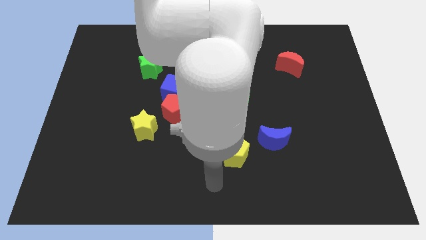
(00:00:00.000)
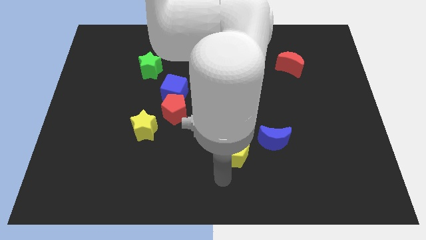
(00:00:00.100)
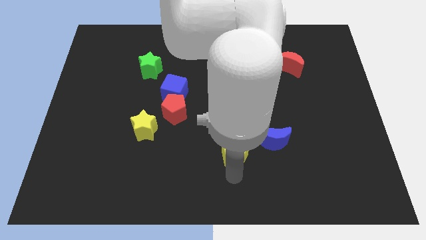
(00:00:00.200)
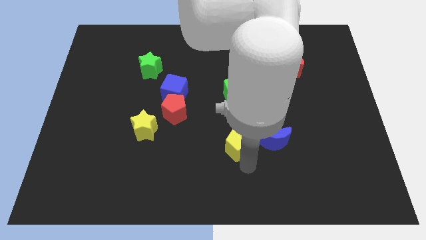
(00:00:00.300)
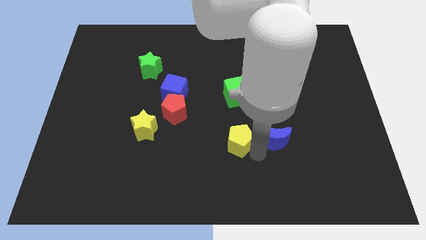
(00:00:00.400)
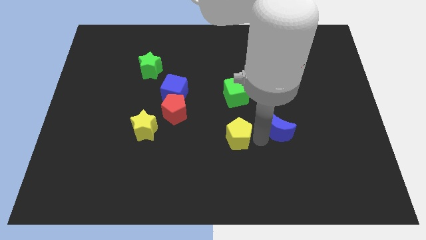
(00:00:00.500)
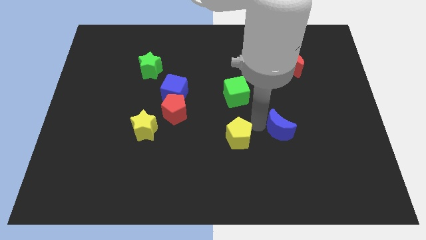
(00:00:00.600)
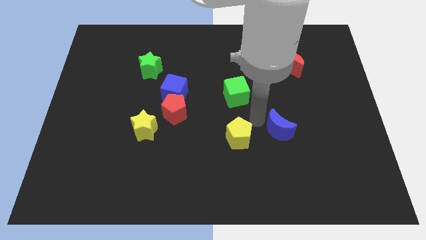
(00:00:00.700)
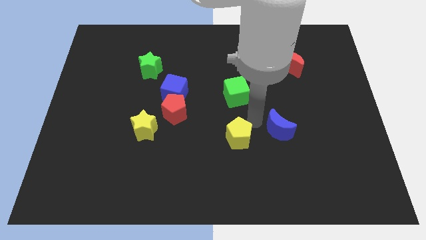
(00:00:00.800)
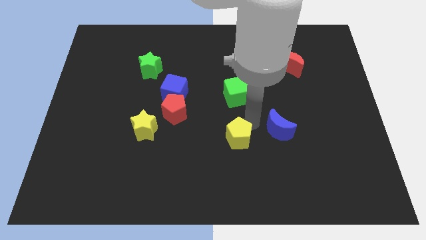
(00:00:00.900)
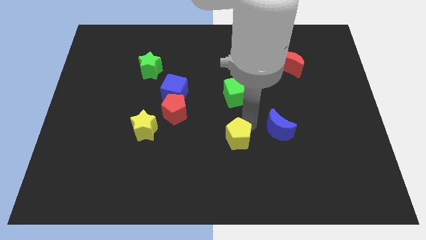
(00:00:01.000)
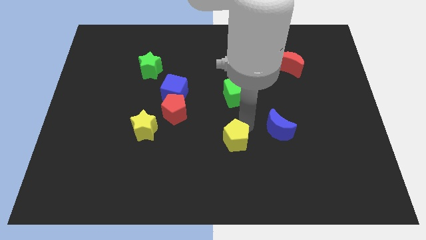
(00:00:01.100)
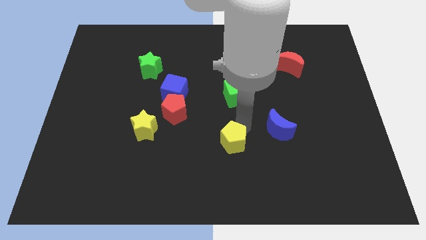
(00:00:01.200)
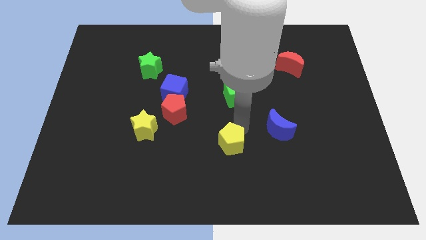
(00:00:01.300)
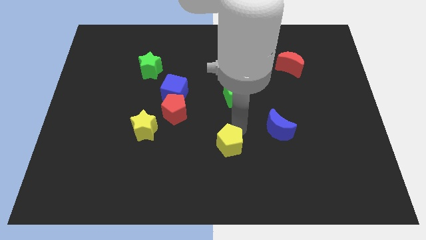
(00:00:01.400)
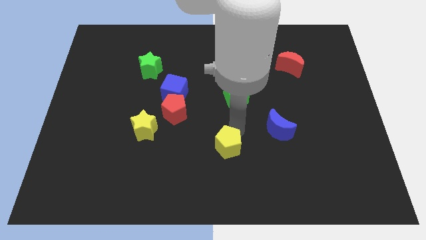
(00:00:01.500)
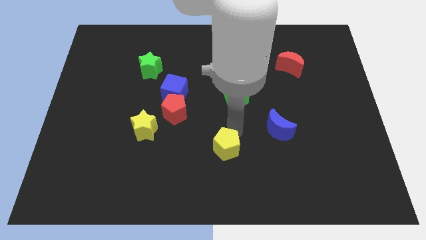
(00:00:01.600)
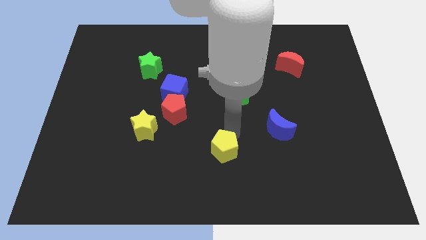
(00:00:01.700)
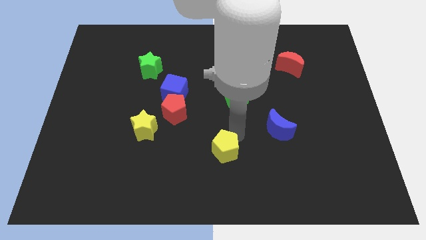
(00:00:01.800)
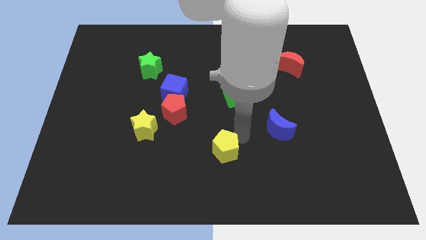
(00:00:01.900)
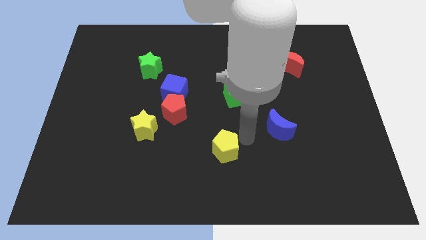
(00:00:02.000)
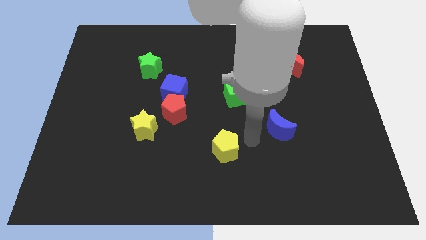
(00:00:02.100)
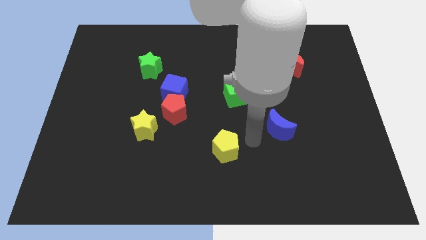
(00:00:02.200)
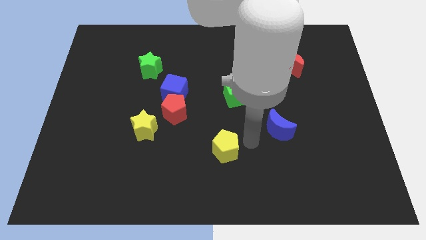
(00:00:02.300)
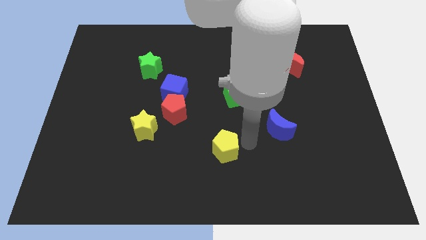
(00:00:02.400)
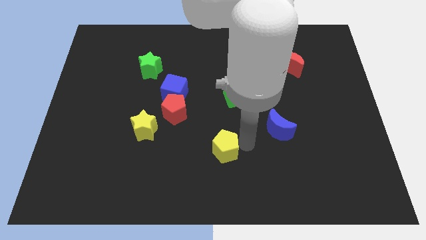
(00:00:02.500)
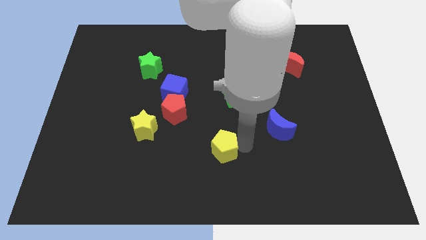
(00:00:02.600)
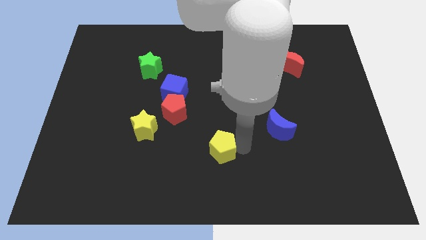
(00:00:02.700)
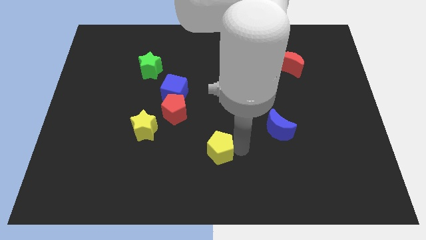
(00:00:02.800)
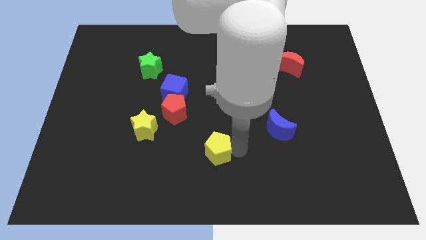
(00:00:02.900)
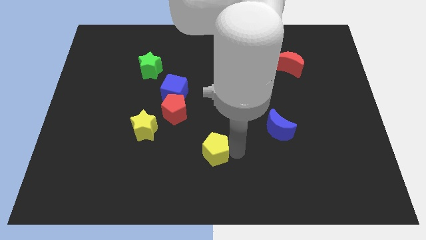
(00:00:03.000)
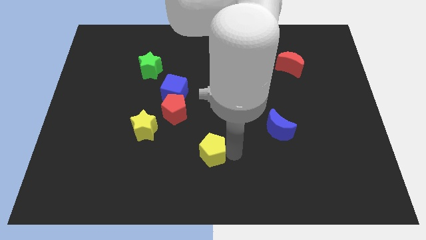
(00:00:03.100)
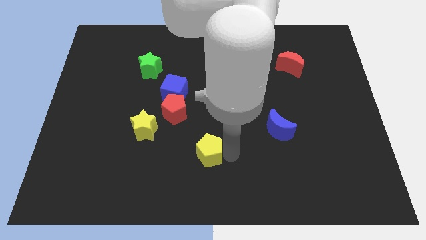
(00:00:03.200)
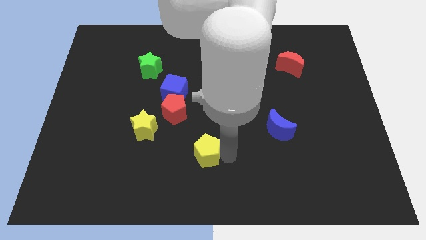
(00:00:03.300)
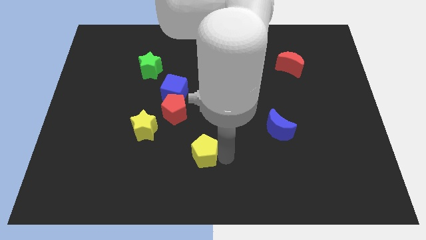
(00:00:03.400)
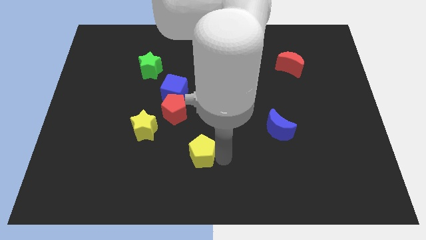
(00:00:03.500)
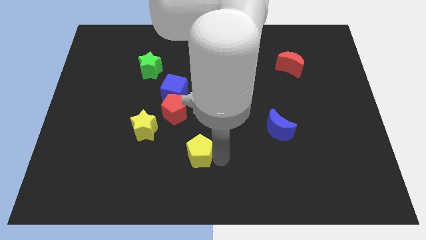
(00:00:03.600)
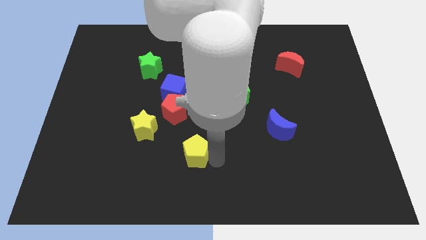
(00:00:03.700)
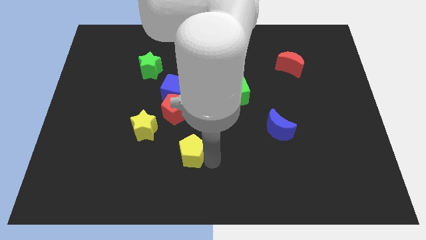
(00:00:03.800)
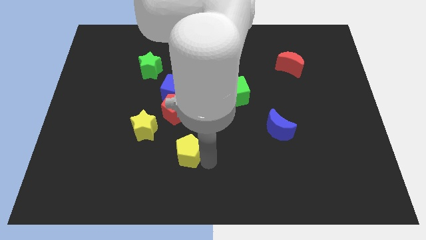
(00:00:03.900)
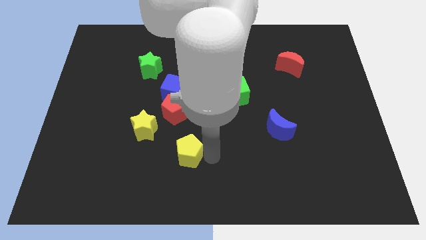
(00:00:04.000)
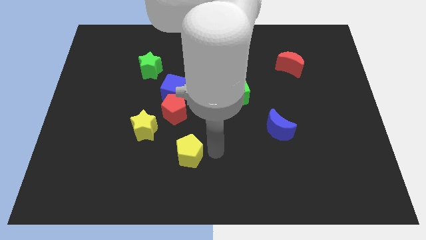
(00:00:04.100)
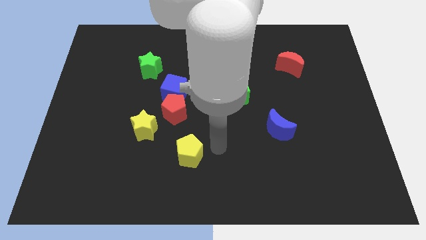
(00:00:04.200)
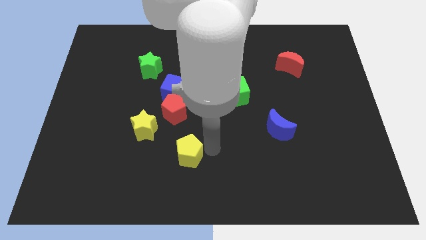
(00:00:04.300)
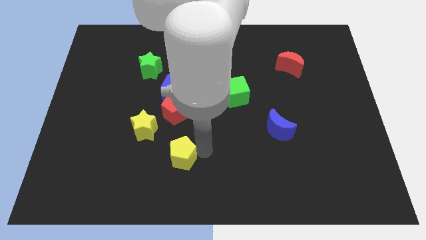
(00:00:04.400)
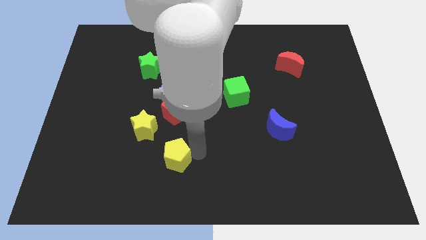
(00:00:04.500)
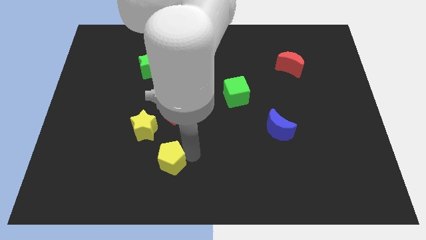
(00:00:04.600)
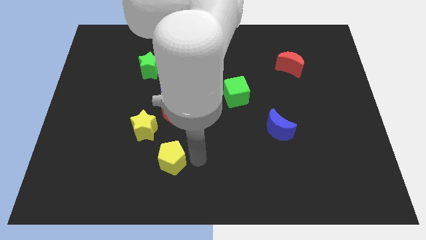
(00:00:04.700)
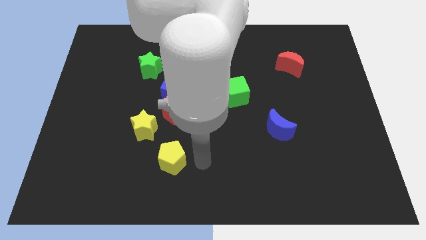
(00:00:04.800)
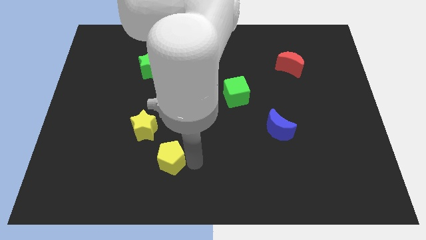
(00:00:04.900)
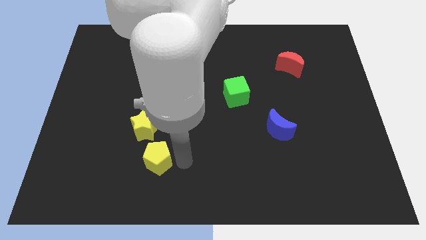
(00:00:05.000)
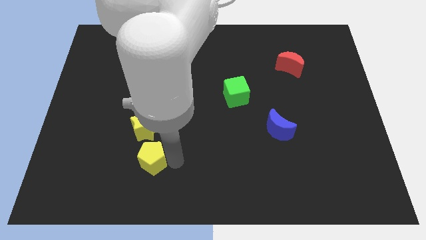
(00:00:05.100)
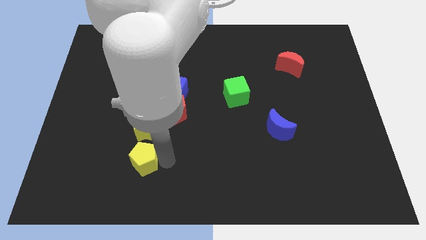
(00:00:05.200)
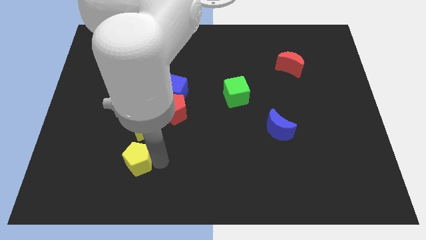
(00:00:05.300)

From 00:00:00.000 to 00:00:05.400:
push the yellow pentagon to the left

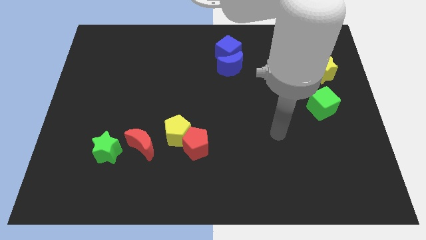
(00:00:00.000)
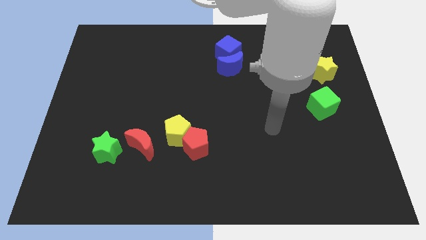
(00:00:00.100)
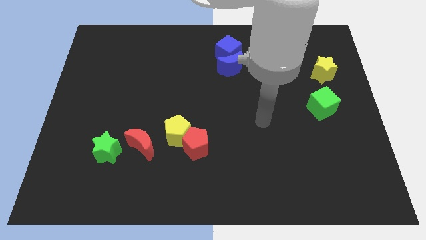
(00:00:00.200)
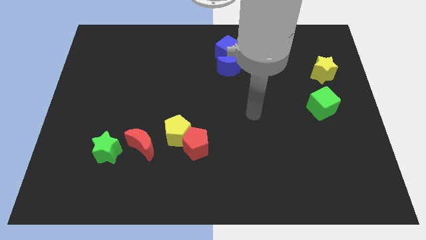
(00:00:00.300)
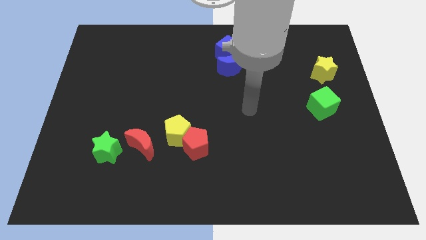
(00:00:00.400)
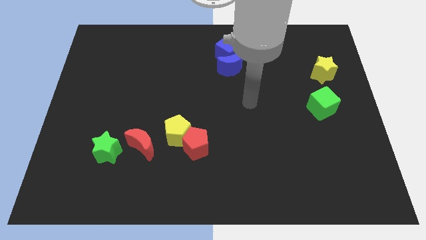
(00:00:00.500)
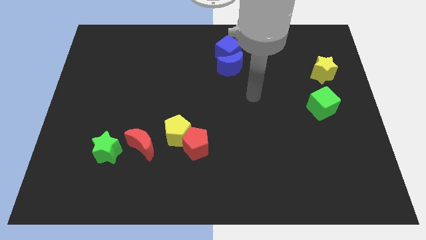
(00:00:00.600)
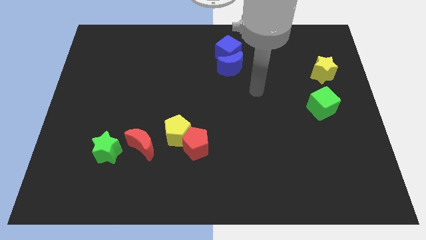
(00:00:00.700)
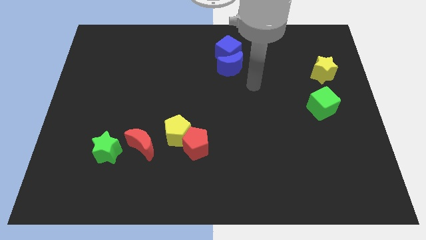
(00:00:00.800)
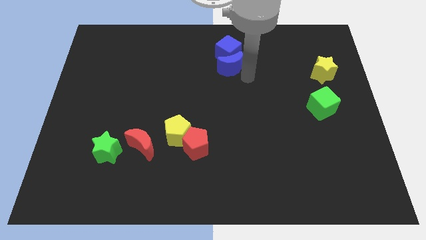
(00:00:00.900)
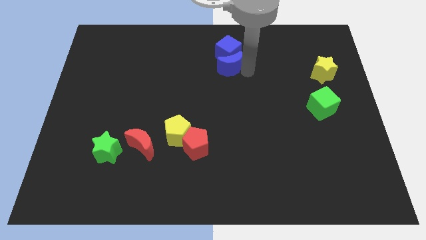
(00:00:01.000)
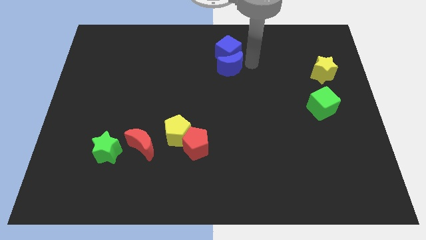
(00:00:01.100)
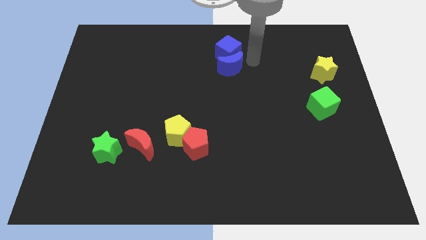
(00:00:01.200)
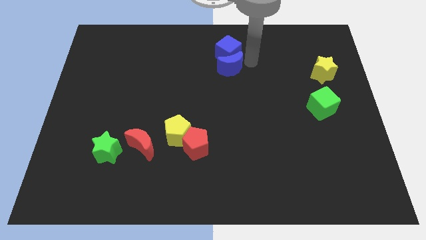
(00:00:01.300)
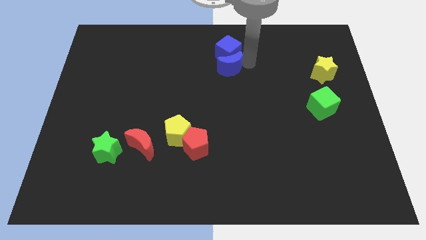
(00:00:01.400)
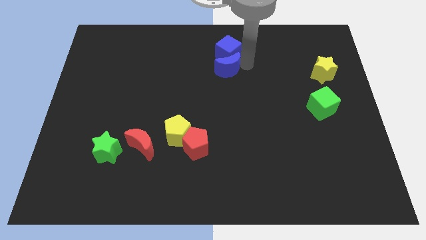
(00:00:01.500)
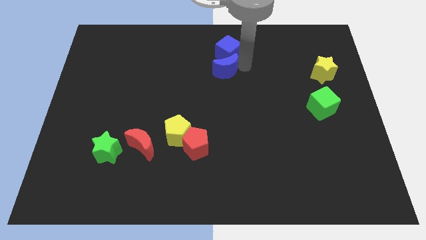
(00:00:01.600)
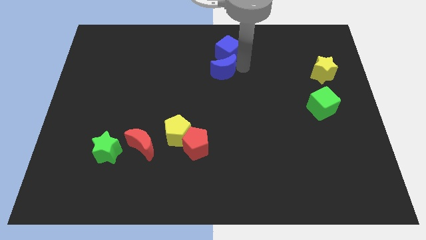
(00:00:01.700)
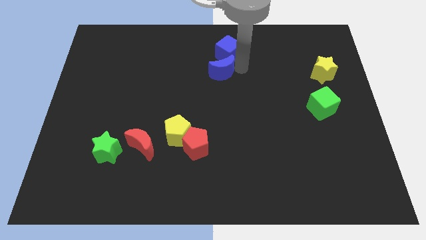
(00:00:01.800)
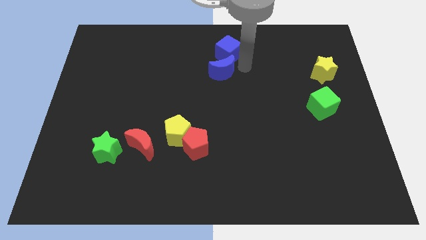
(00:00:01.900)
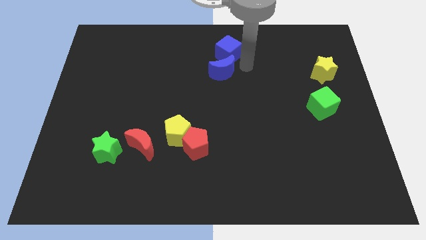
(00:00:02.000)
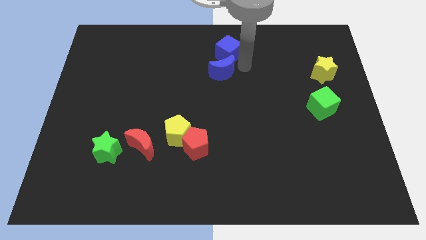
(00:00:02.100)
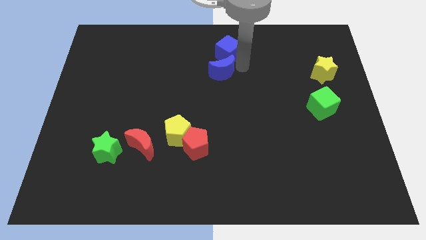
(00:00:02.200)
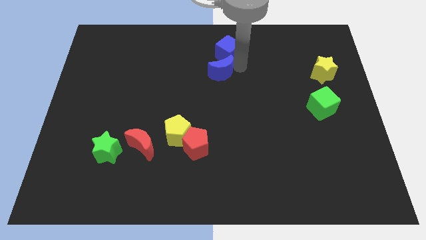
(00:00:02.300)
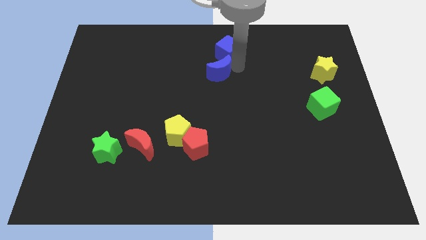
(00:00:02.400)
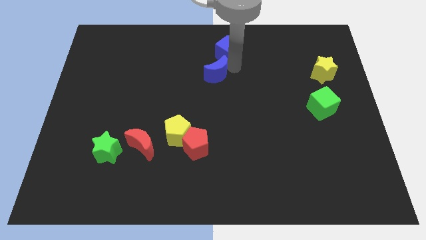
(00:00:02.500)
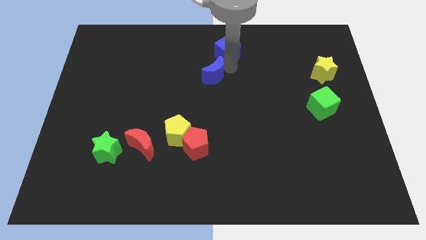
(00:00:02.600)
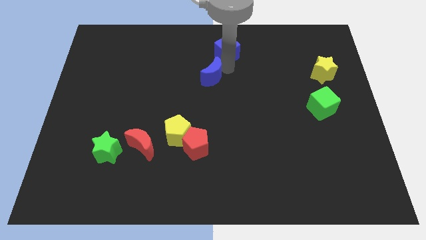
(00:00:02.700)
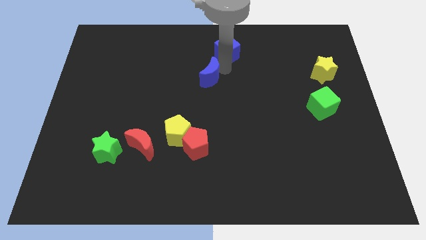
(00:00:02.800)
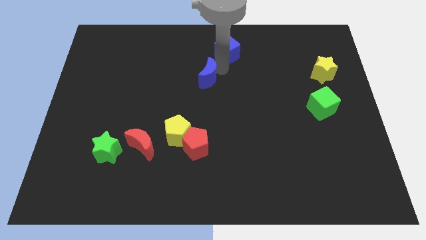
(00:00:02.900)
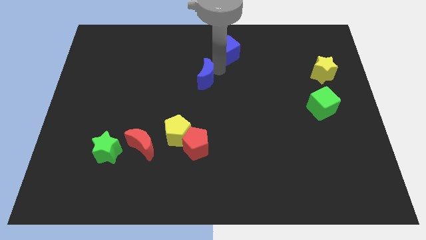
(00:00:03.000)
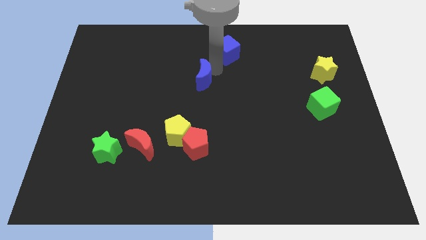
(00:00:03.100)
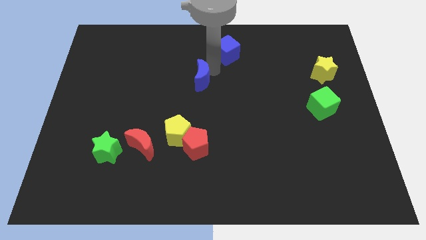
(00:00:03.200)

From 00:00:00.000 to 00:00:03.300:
slide the blue moon to the left a bit
